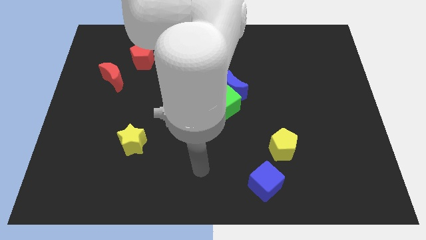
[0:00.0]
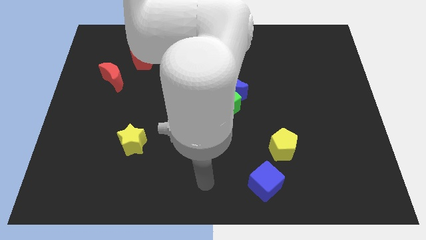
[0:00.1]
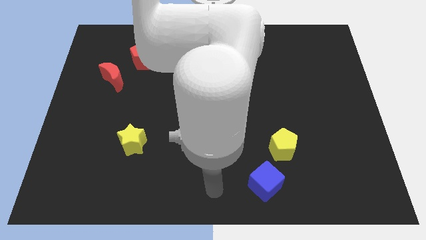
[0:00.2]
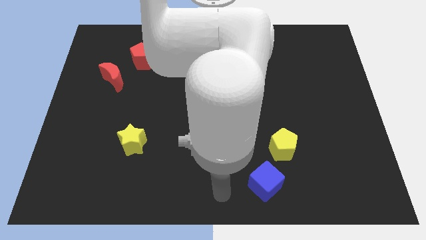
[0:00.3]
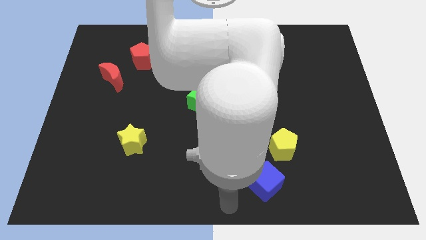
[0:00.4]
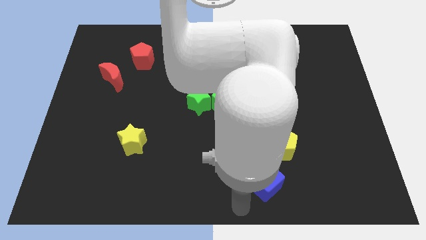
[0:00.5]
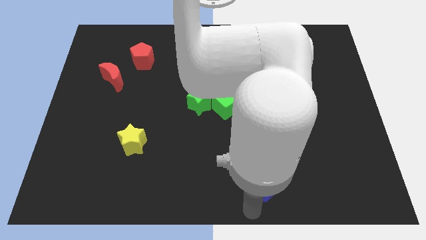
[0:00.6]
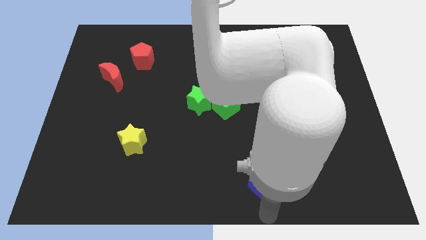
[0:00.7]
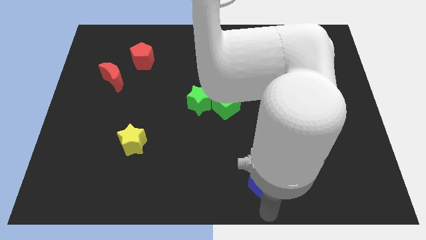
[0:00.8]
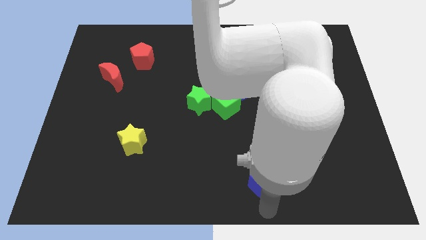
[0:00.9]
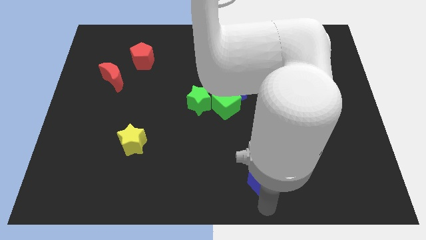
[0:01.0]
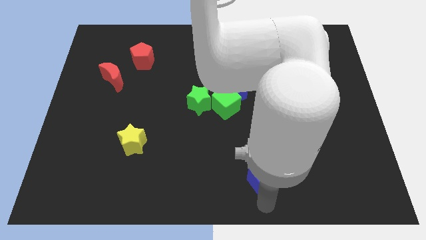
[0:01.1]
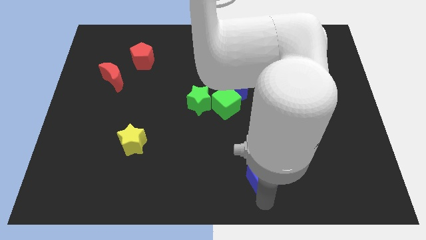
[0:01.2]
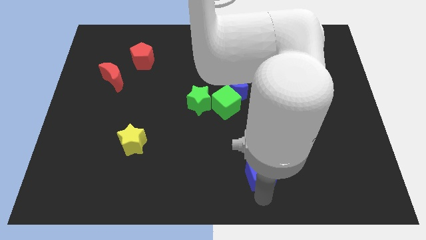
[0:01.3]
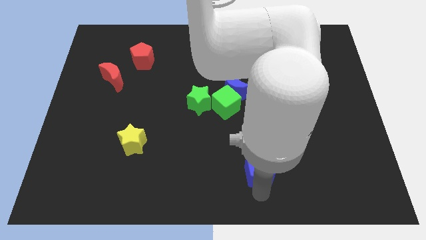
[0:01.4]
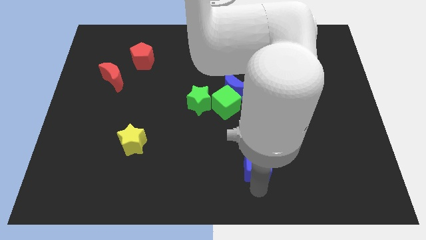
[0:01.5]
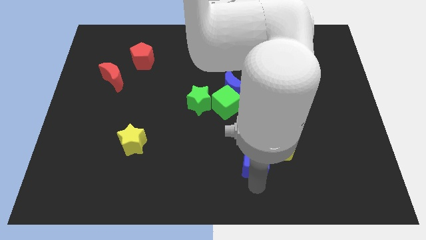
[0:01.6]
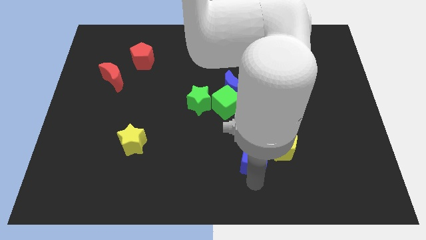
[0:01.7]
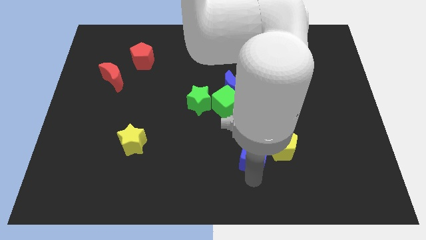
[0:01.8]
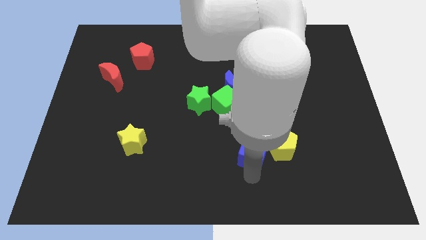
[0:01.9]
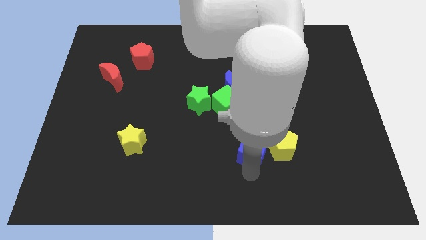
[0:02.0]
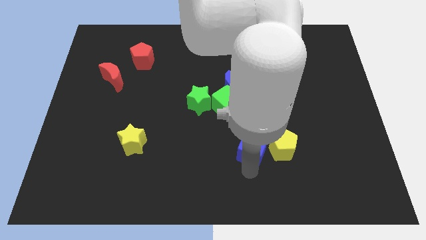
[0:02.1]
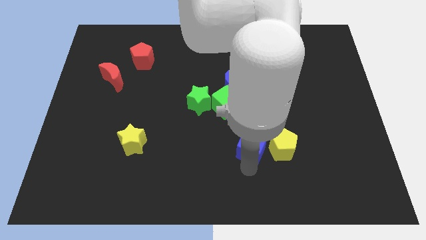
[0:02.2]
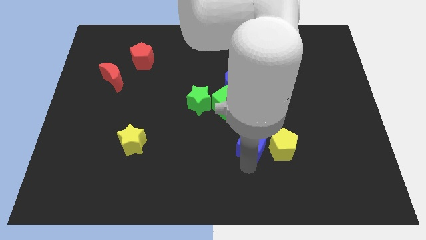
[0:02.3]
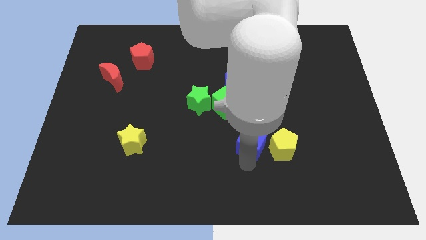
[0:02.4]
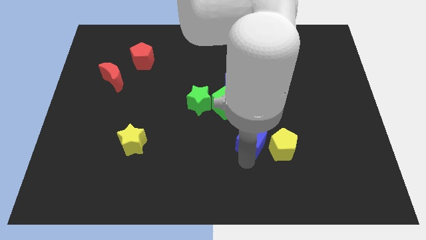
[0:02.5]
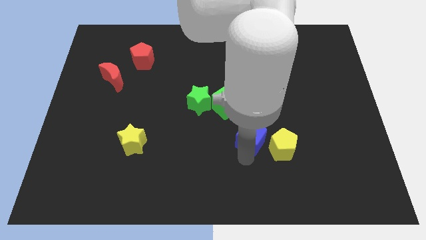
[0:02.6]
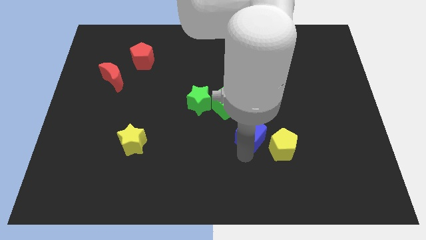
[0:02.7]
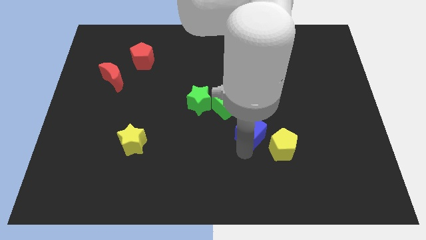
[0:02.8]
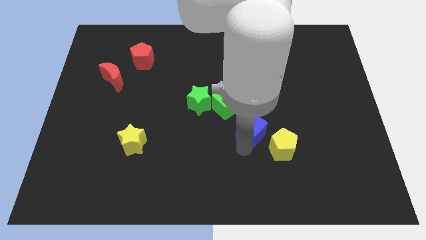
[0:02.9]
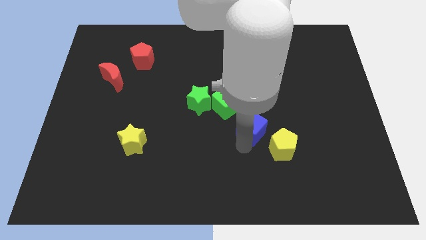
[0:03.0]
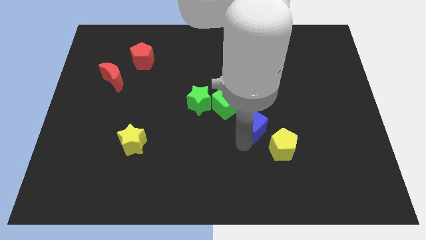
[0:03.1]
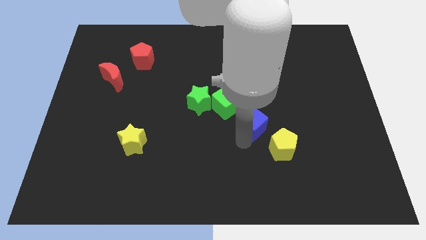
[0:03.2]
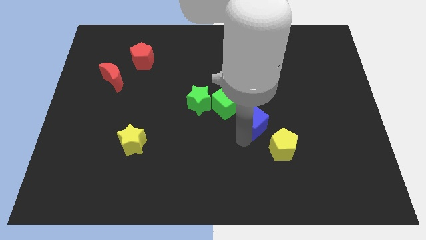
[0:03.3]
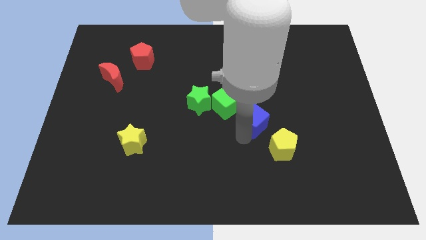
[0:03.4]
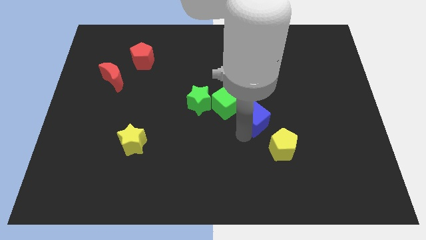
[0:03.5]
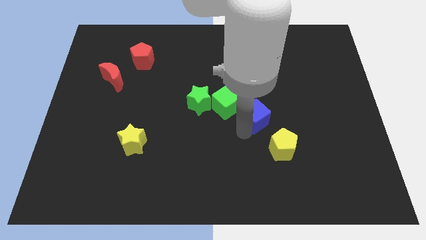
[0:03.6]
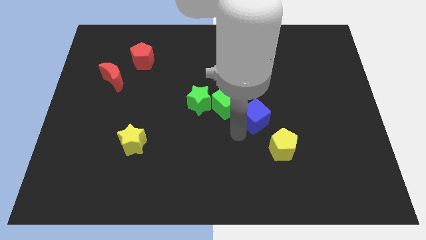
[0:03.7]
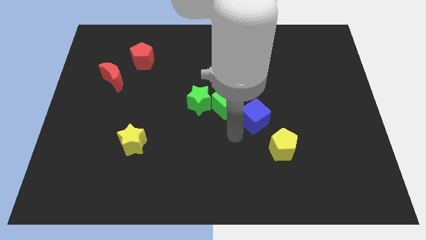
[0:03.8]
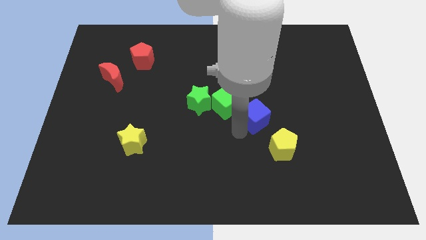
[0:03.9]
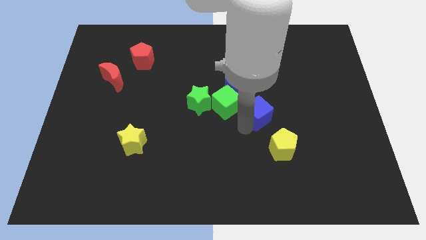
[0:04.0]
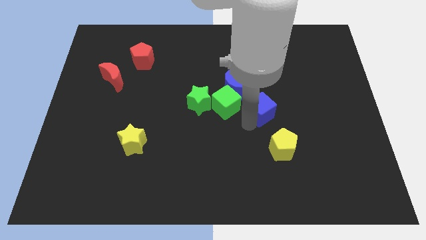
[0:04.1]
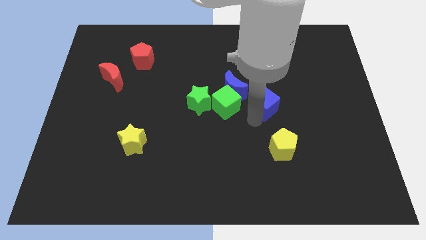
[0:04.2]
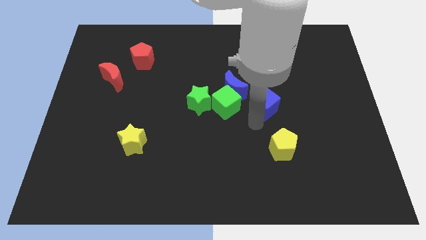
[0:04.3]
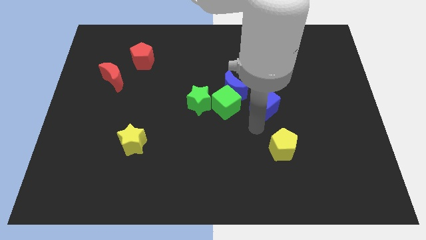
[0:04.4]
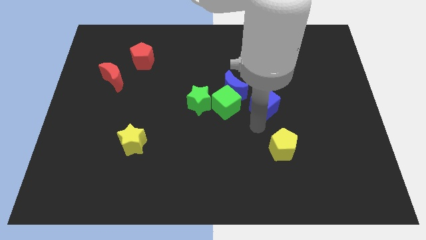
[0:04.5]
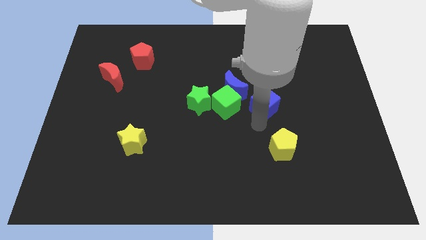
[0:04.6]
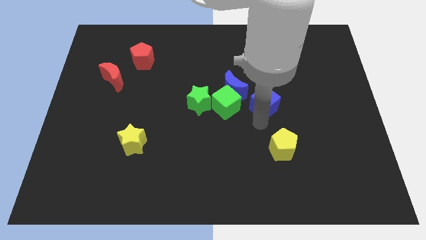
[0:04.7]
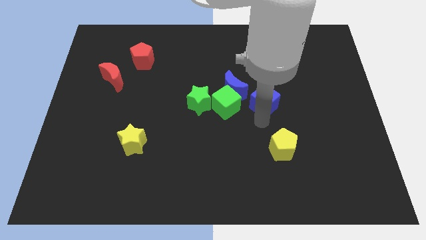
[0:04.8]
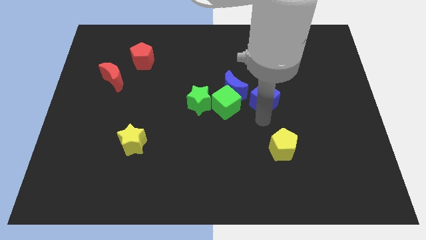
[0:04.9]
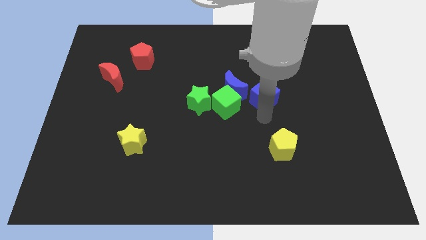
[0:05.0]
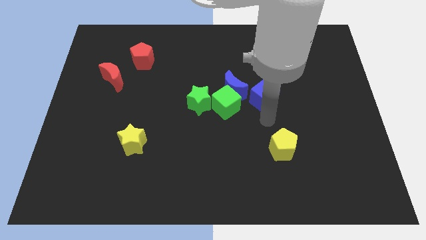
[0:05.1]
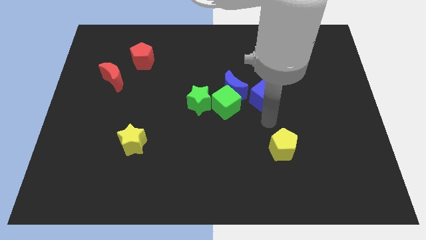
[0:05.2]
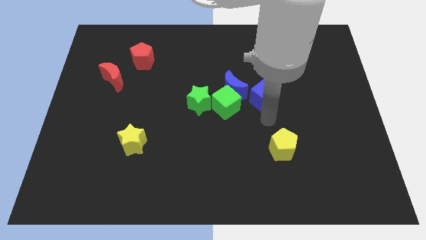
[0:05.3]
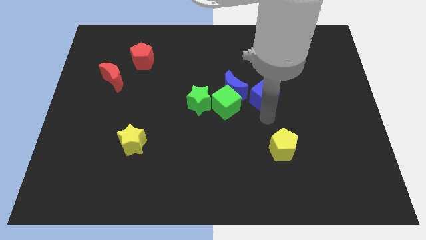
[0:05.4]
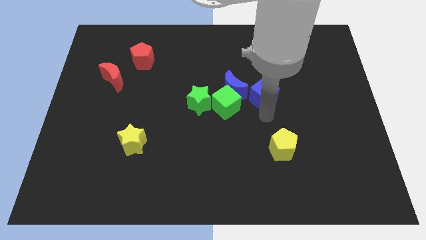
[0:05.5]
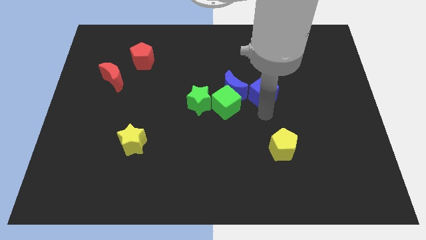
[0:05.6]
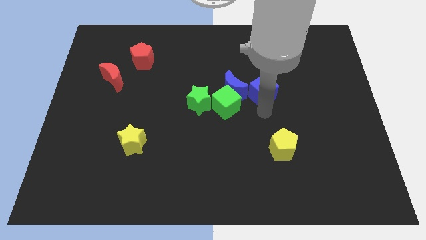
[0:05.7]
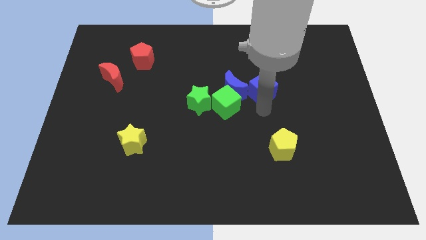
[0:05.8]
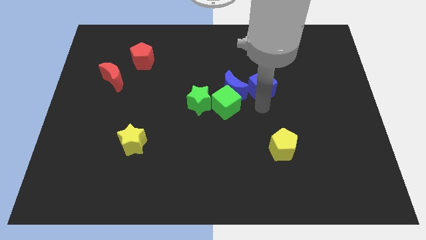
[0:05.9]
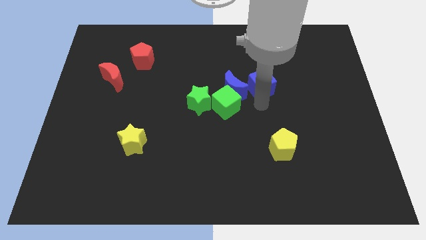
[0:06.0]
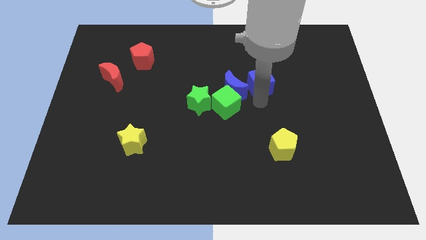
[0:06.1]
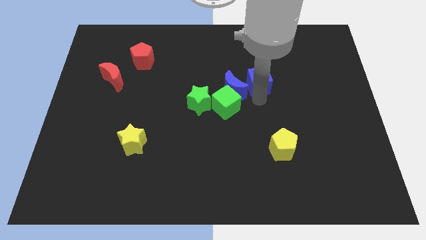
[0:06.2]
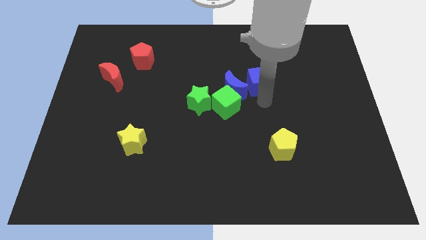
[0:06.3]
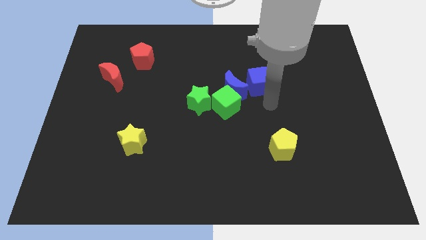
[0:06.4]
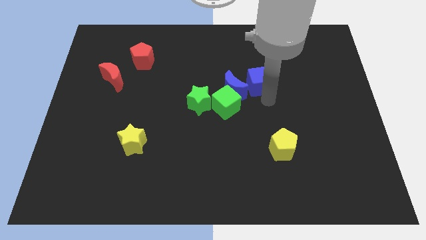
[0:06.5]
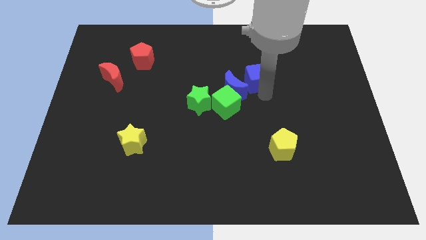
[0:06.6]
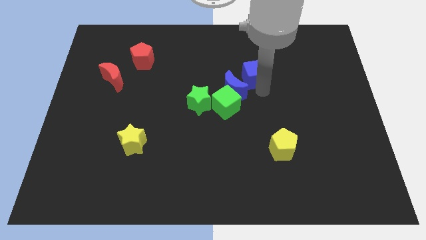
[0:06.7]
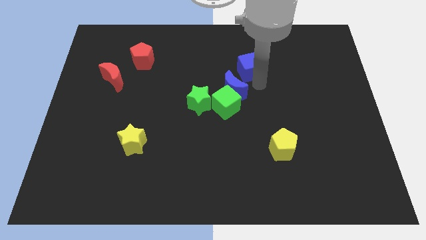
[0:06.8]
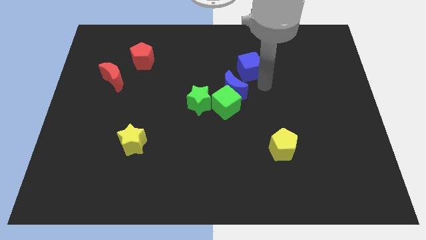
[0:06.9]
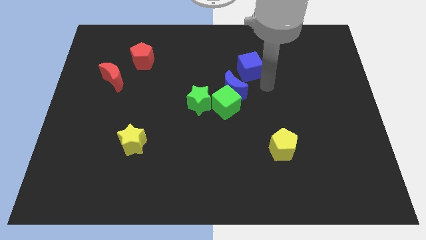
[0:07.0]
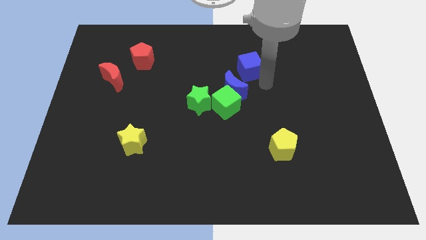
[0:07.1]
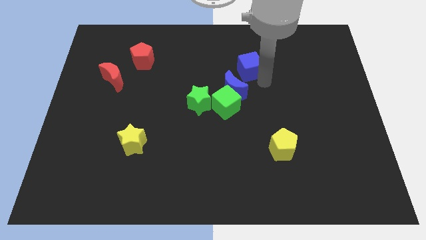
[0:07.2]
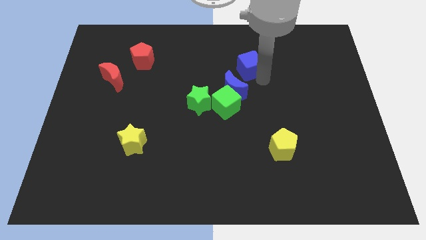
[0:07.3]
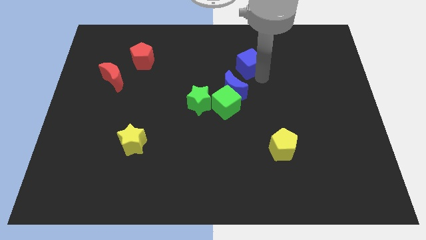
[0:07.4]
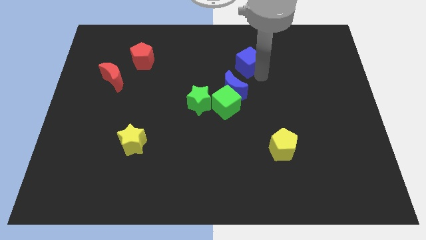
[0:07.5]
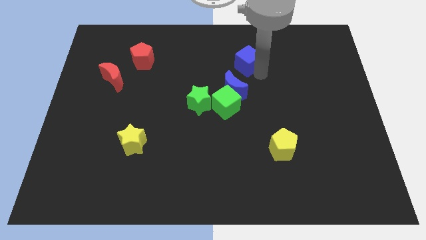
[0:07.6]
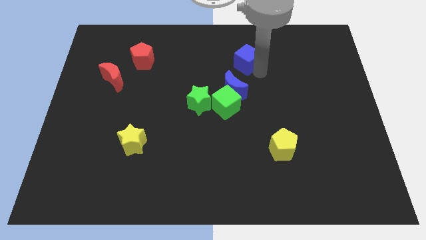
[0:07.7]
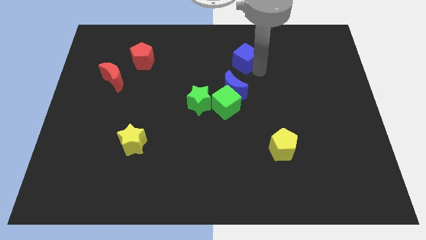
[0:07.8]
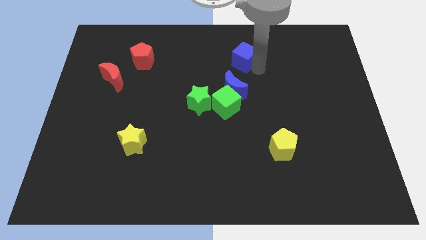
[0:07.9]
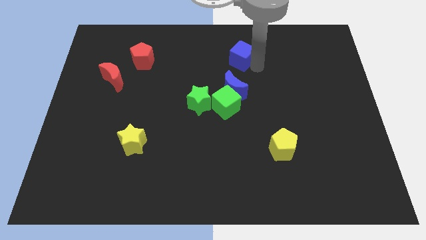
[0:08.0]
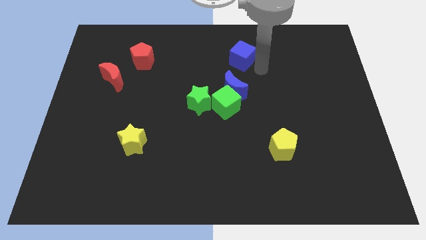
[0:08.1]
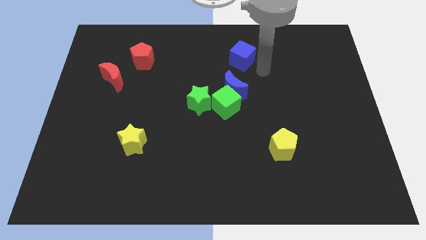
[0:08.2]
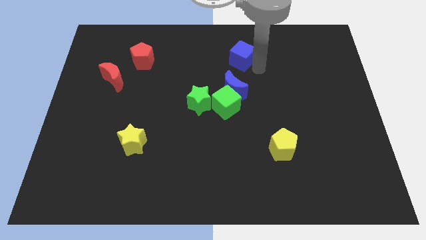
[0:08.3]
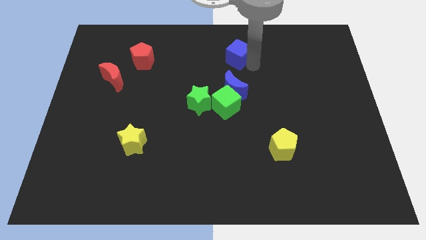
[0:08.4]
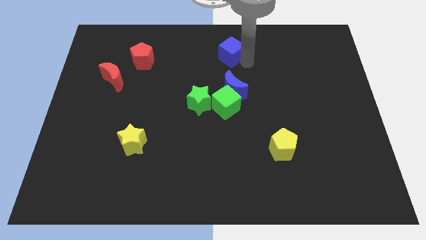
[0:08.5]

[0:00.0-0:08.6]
push the blue cube to the towards your base
